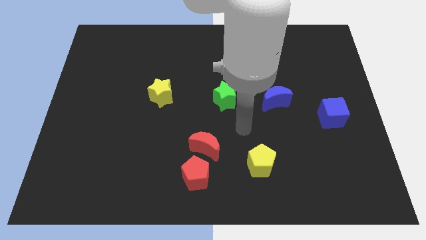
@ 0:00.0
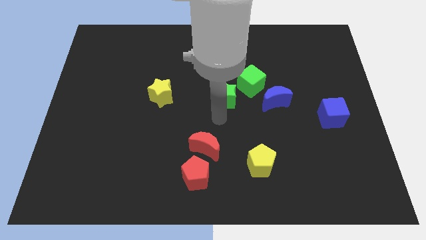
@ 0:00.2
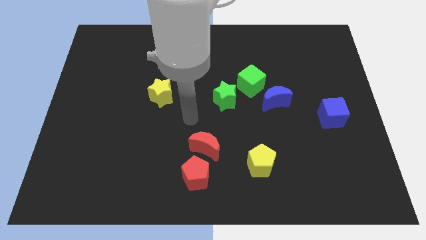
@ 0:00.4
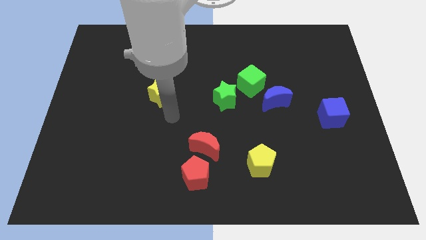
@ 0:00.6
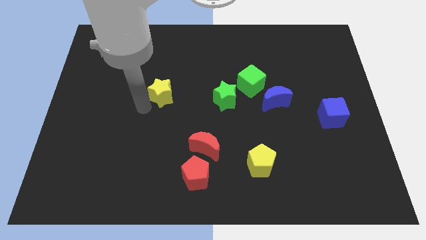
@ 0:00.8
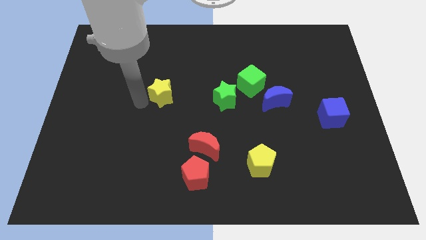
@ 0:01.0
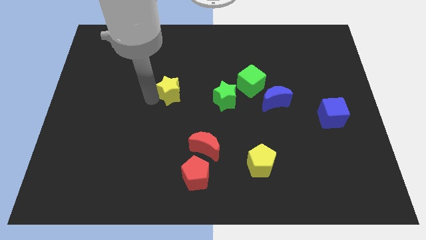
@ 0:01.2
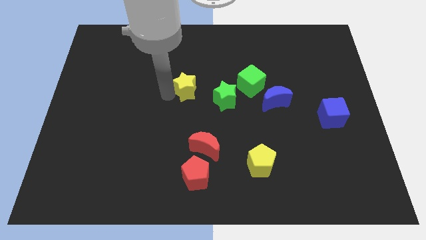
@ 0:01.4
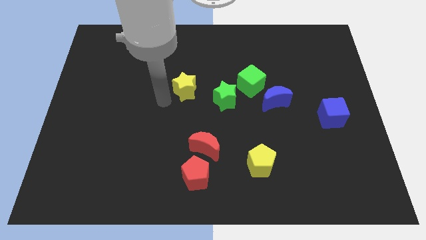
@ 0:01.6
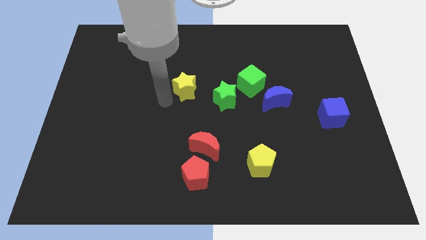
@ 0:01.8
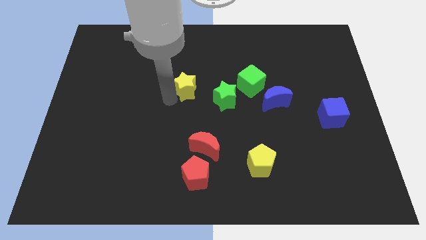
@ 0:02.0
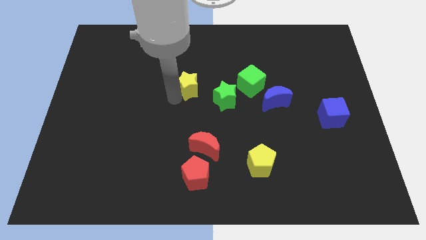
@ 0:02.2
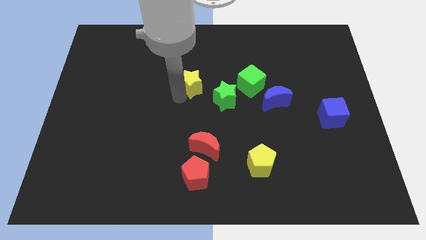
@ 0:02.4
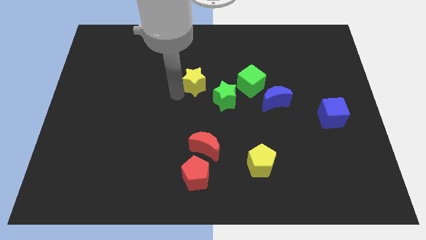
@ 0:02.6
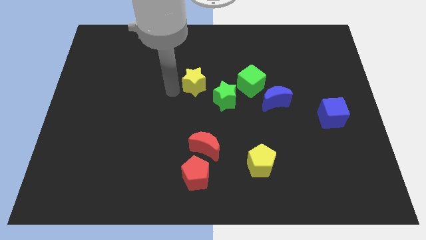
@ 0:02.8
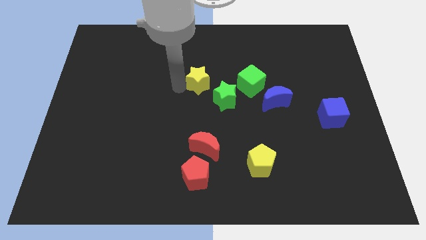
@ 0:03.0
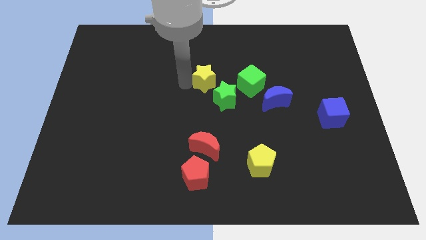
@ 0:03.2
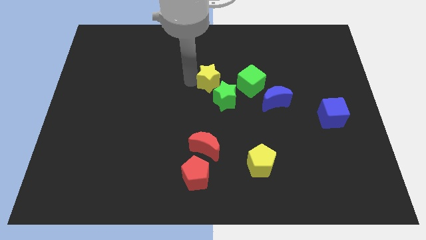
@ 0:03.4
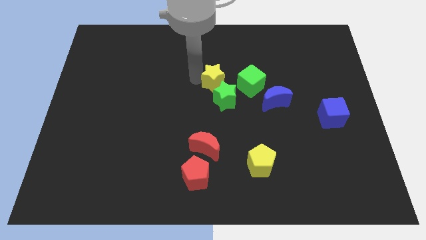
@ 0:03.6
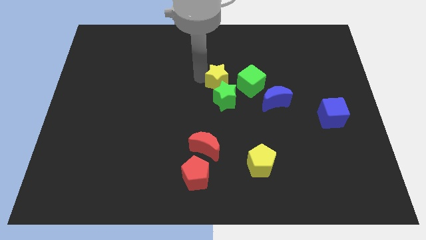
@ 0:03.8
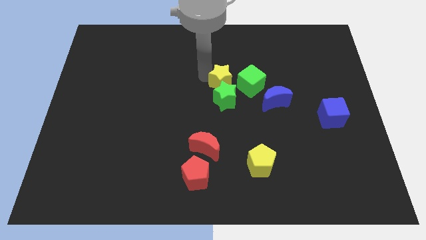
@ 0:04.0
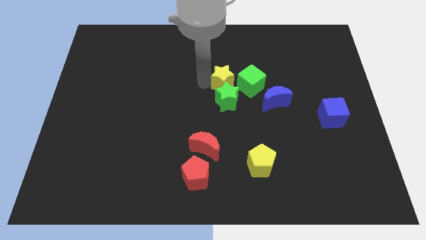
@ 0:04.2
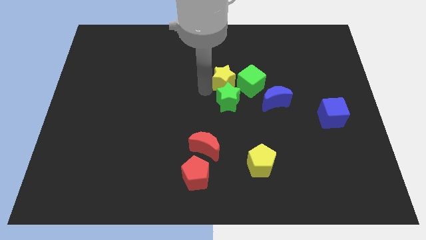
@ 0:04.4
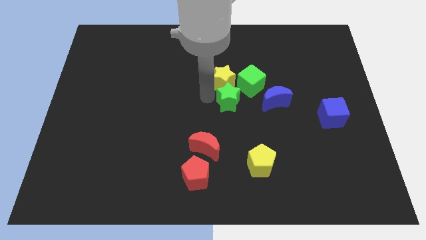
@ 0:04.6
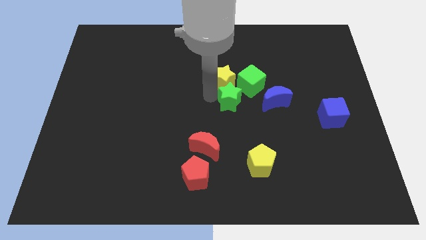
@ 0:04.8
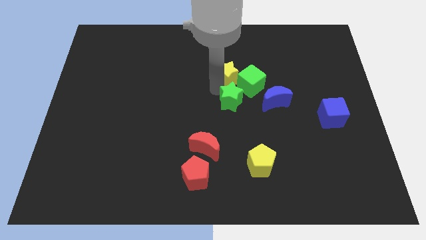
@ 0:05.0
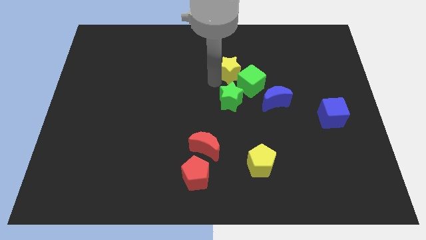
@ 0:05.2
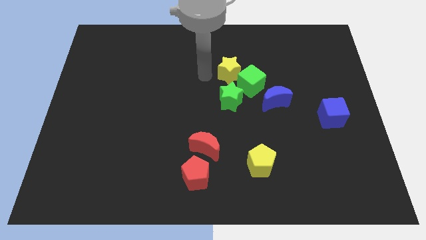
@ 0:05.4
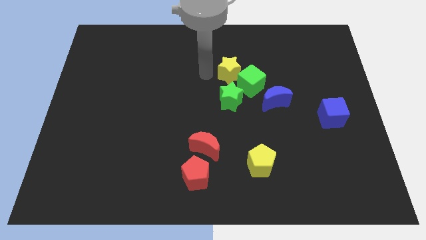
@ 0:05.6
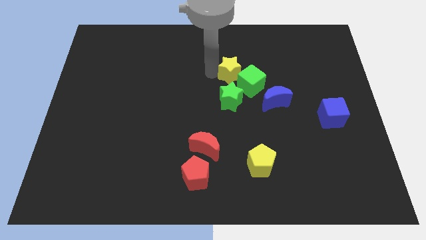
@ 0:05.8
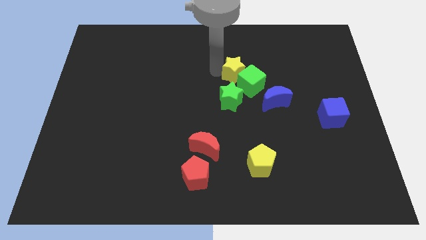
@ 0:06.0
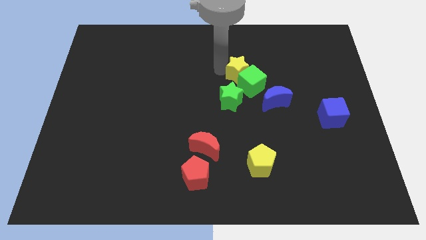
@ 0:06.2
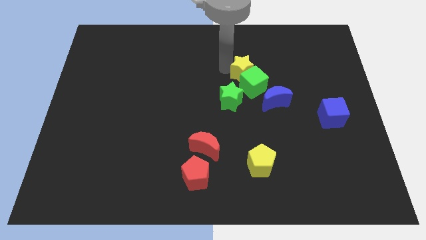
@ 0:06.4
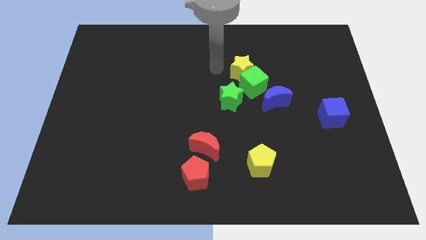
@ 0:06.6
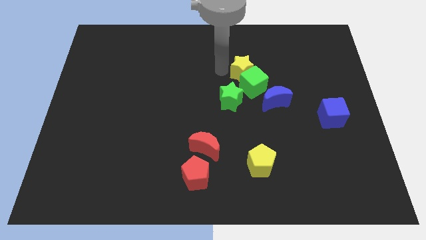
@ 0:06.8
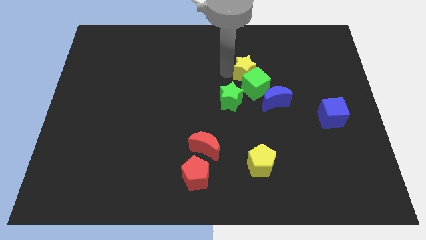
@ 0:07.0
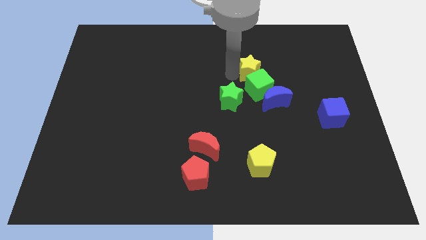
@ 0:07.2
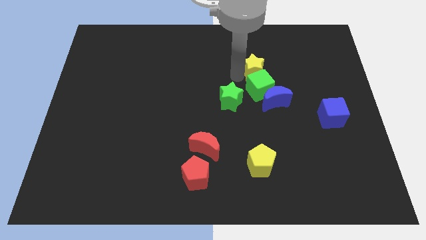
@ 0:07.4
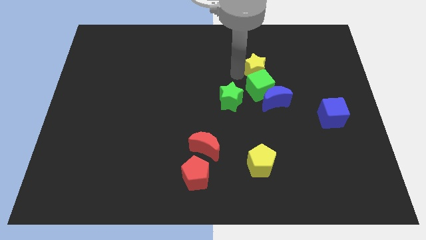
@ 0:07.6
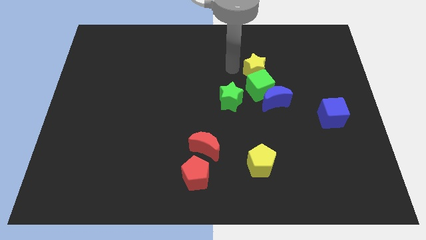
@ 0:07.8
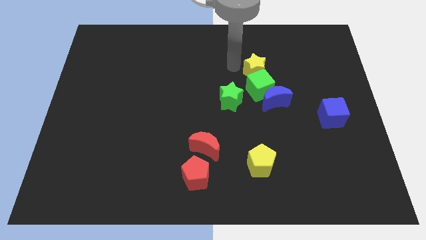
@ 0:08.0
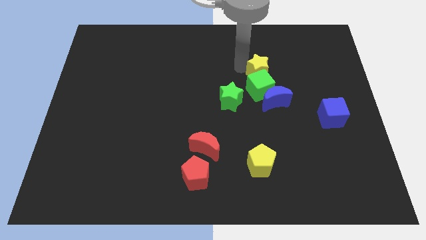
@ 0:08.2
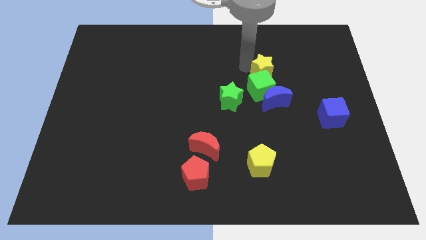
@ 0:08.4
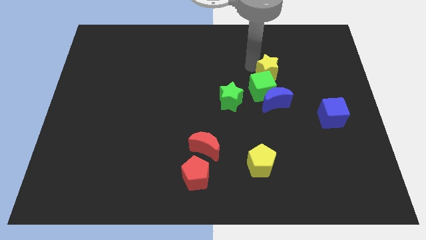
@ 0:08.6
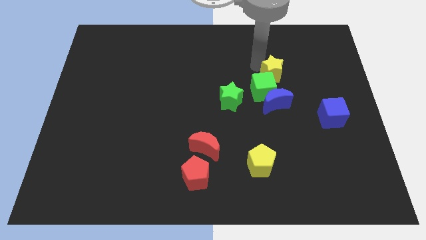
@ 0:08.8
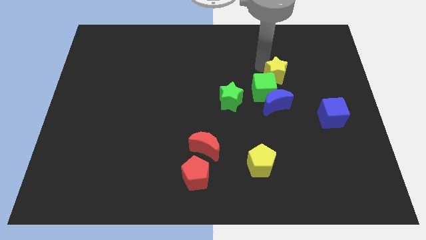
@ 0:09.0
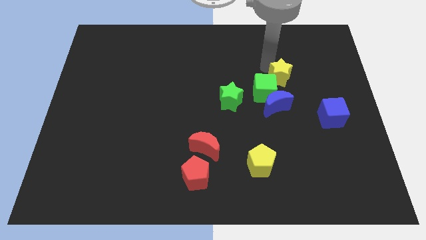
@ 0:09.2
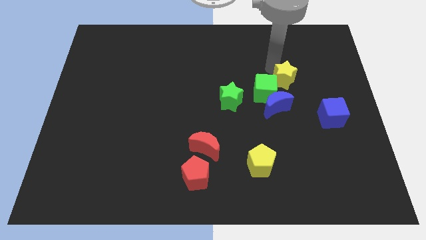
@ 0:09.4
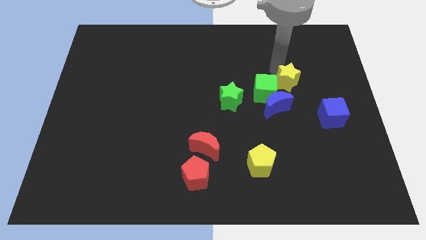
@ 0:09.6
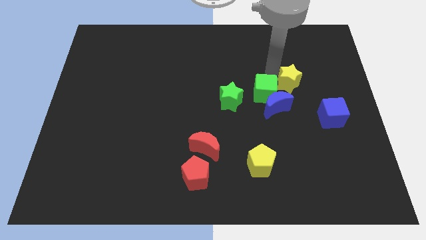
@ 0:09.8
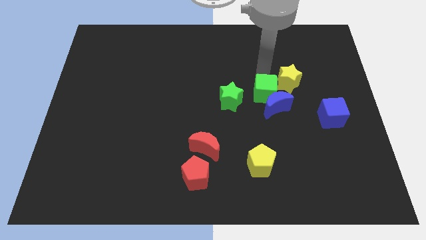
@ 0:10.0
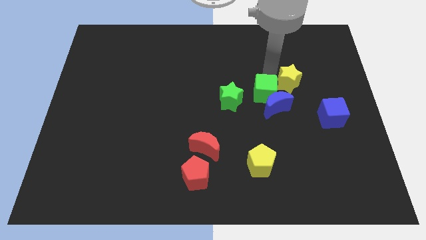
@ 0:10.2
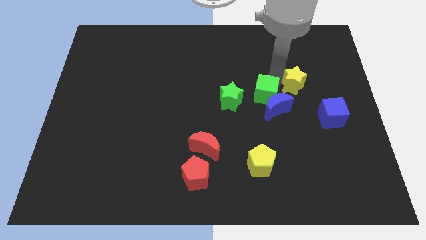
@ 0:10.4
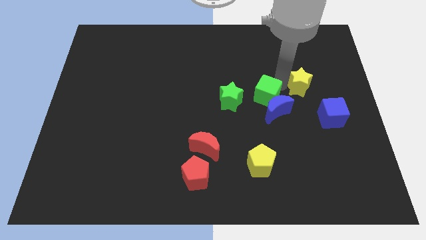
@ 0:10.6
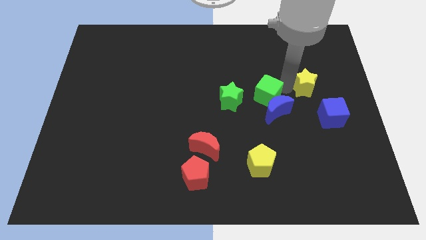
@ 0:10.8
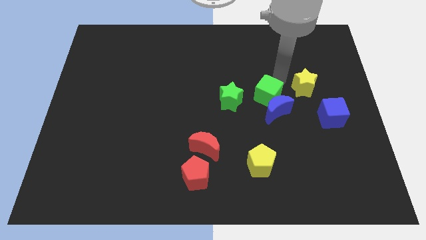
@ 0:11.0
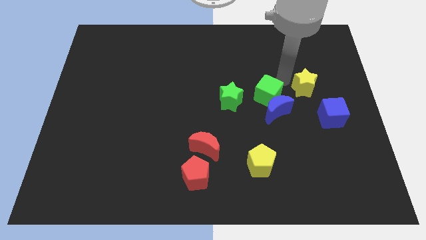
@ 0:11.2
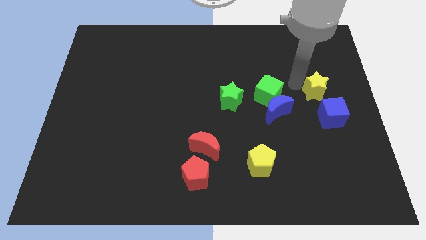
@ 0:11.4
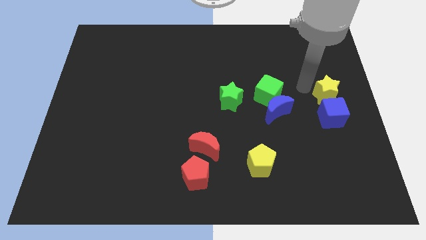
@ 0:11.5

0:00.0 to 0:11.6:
push the yellow star to the right side of the board
